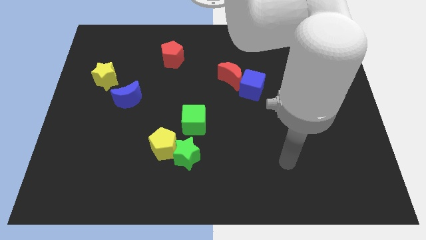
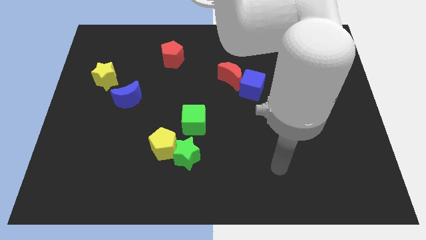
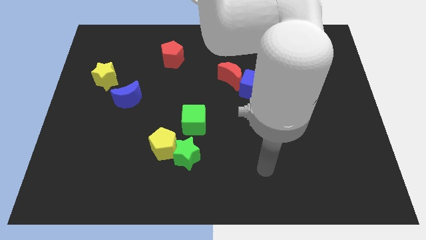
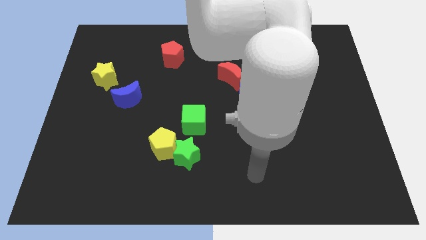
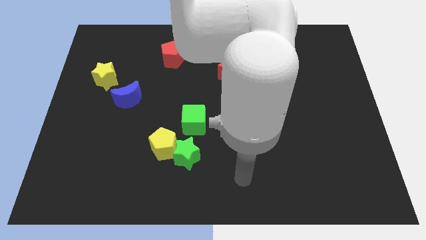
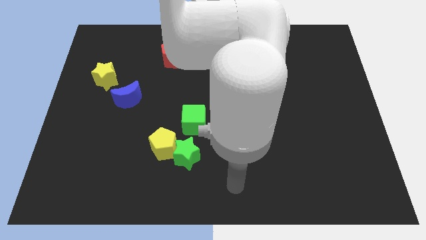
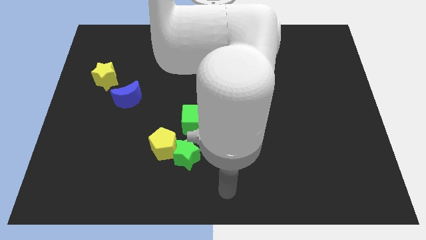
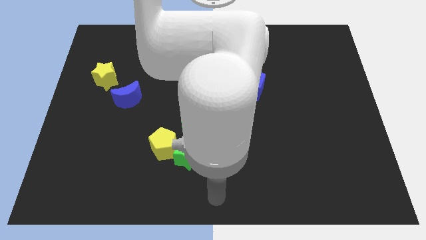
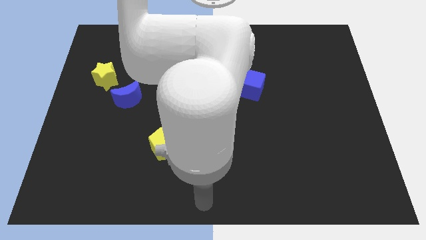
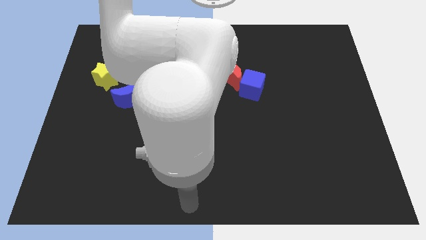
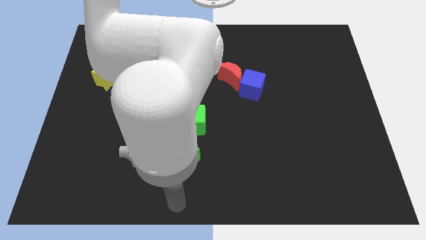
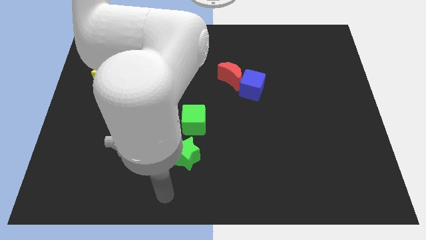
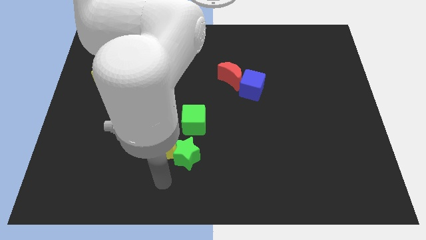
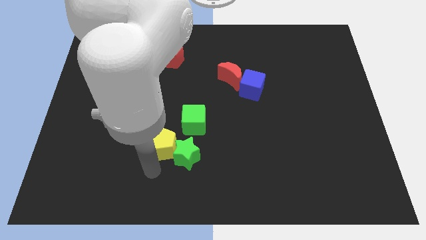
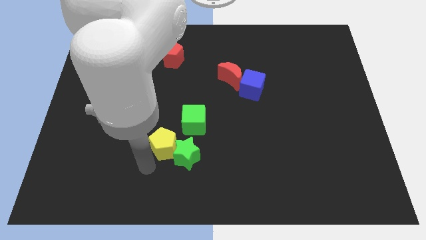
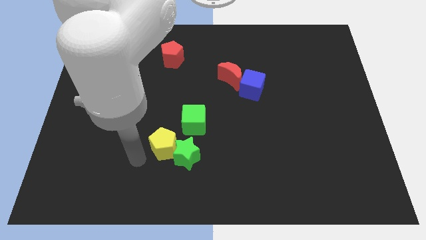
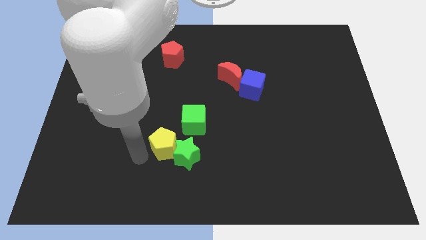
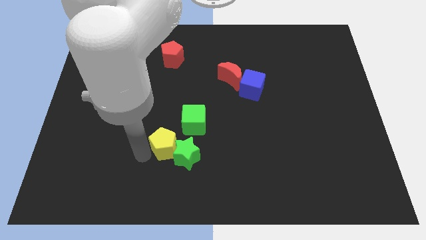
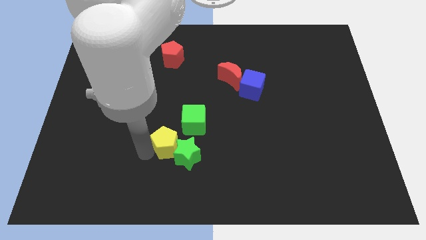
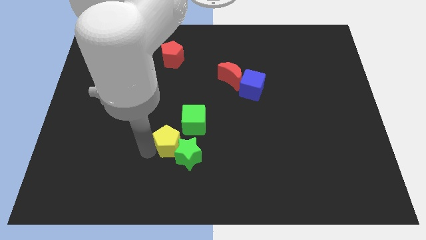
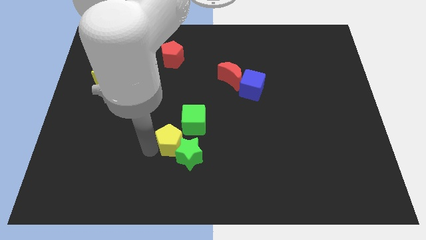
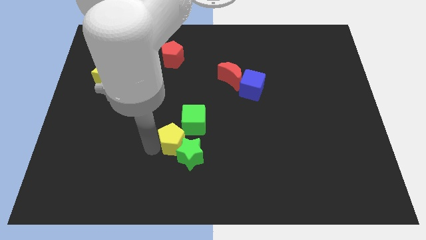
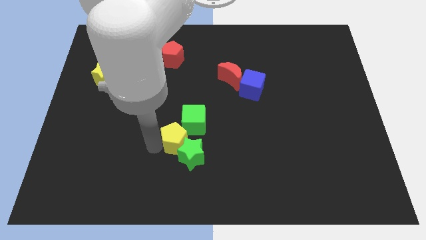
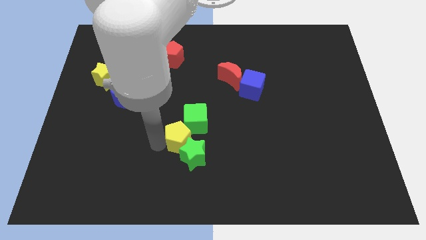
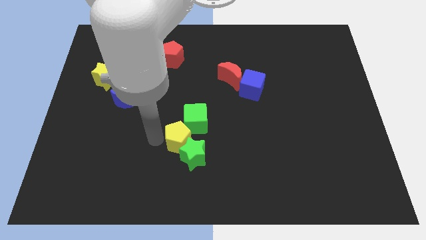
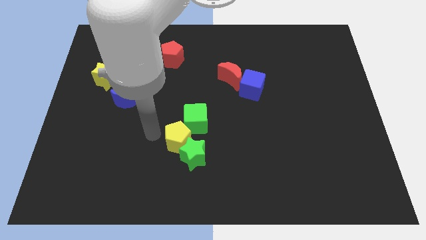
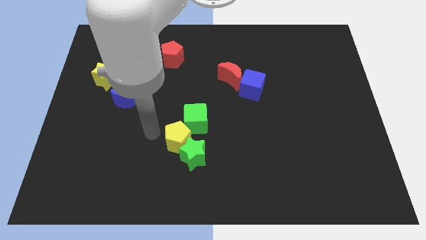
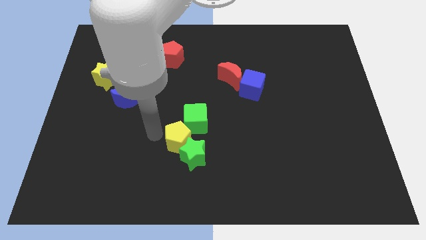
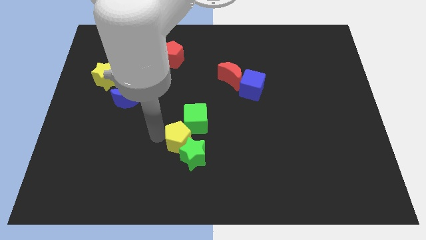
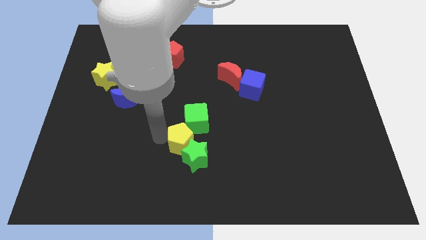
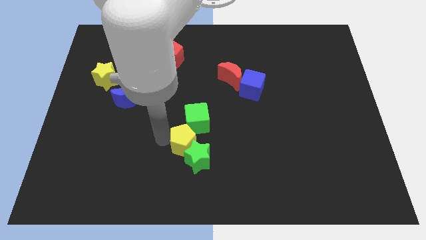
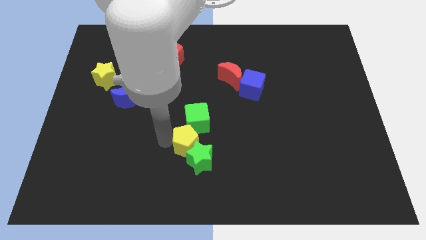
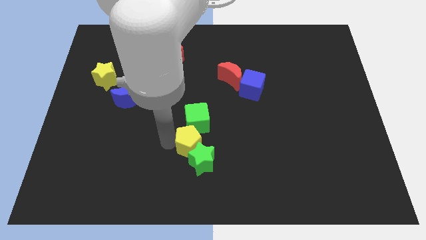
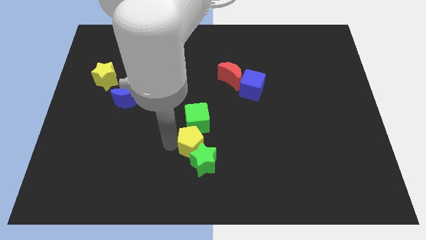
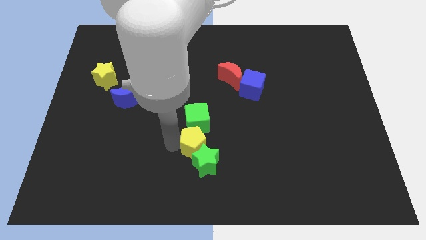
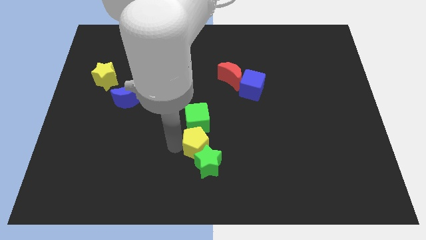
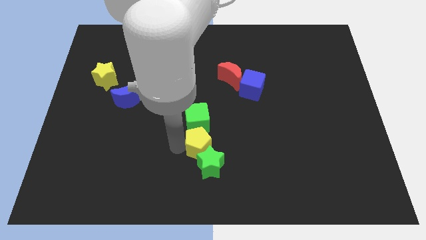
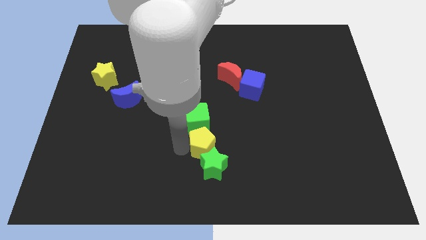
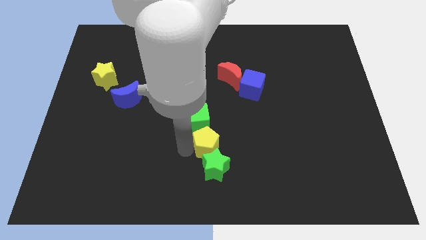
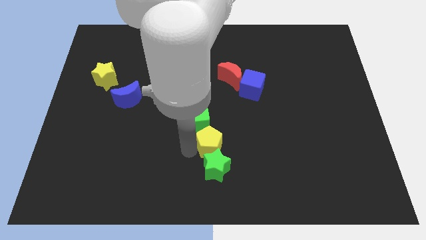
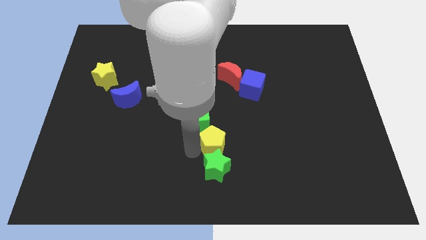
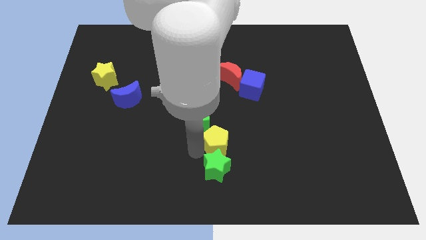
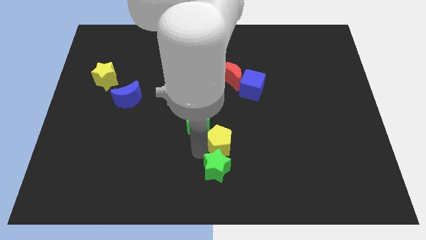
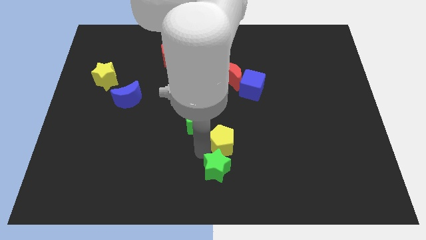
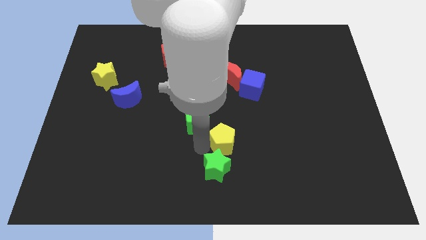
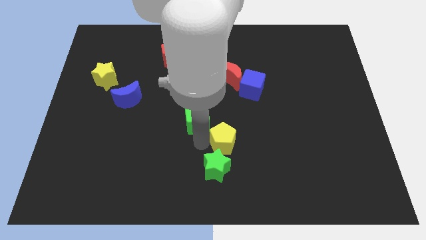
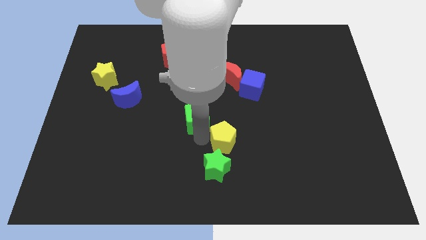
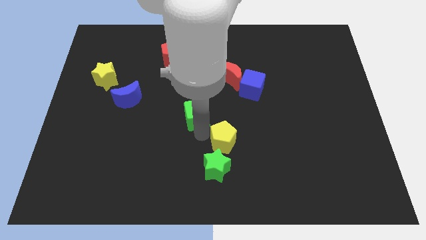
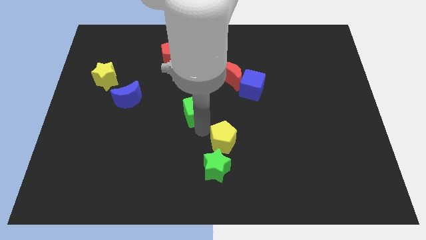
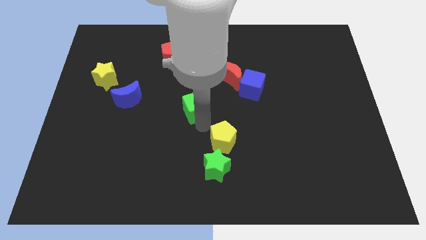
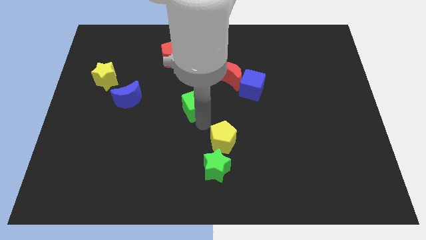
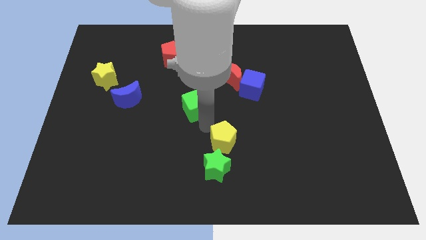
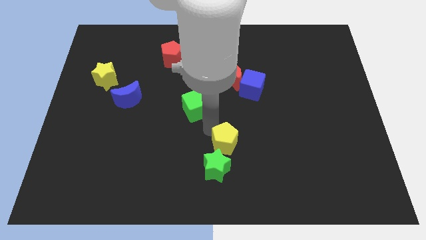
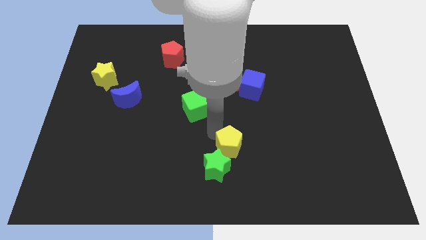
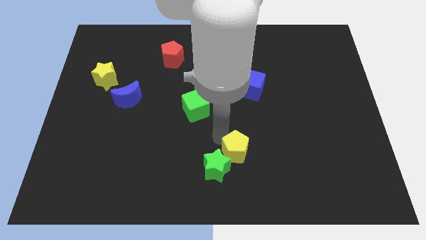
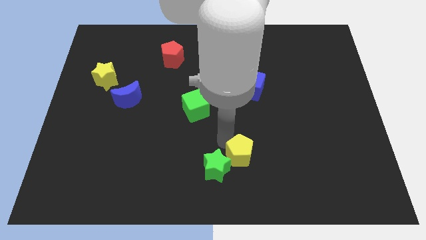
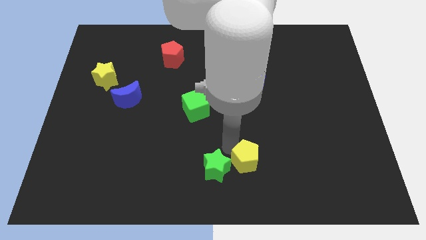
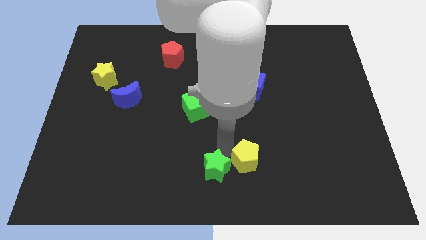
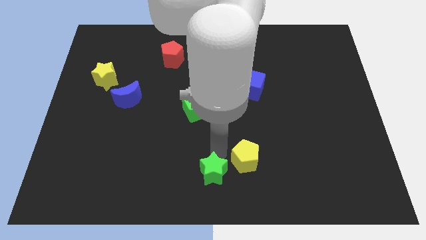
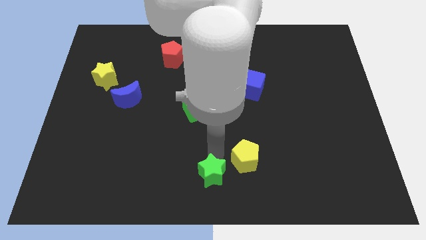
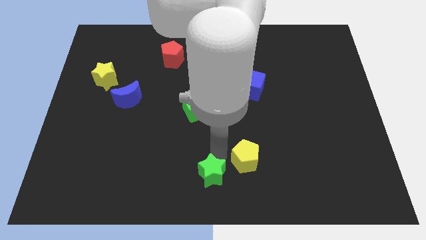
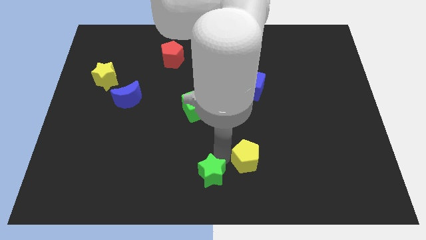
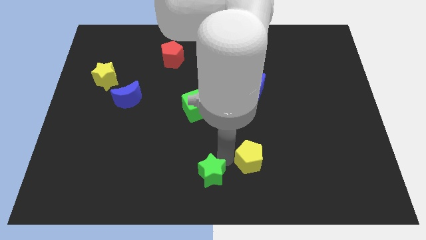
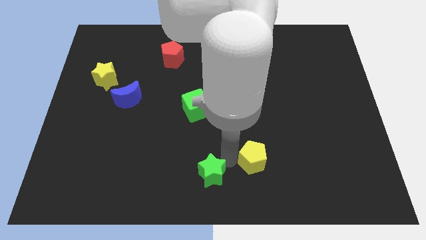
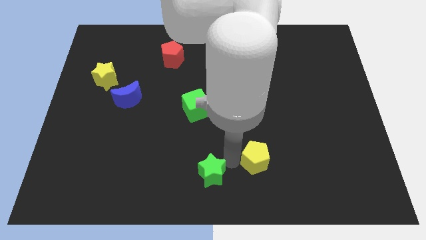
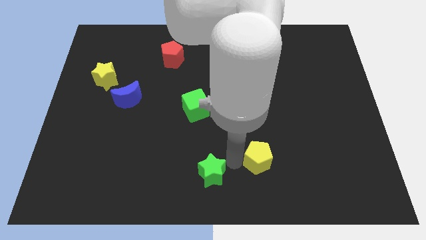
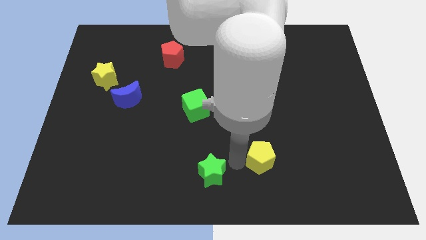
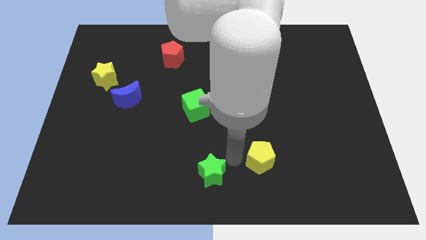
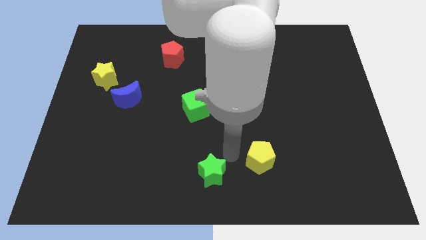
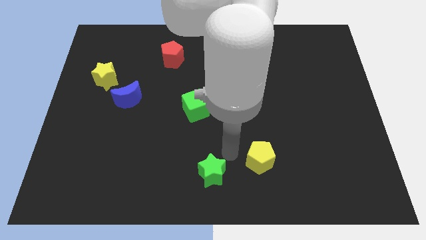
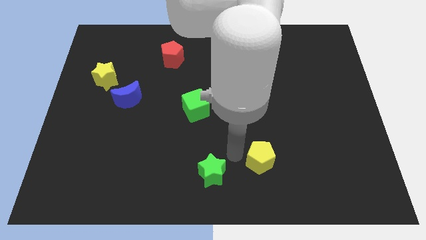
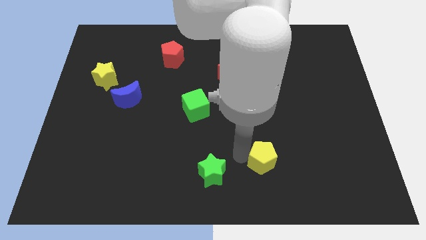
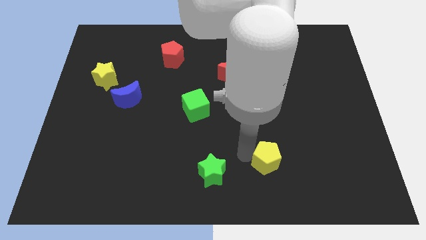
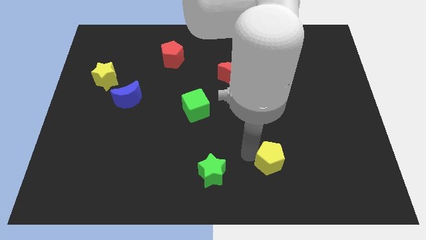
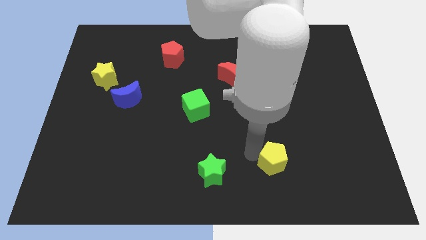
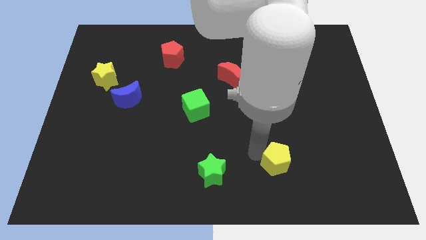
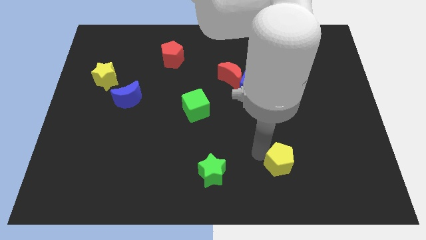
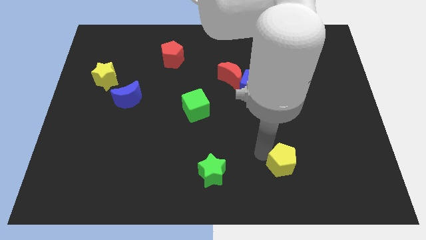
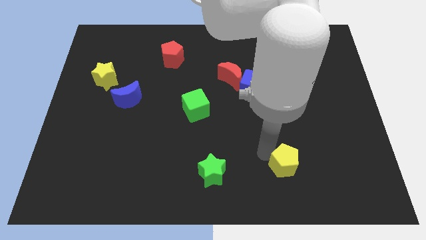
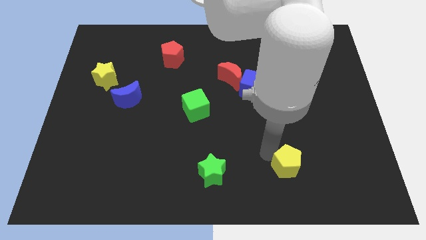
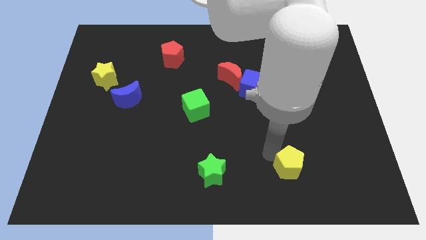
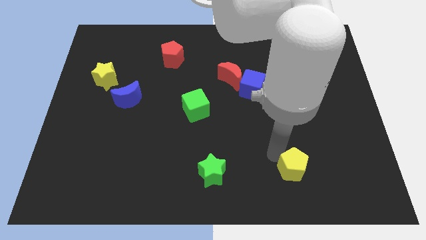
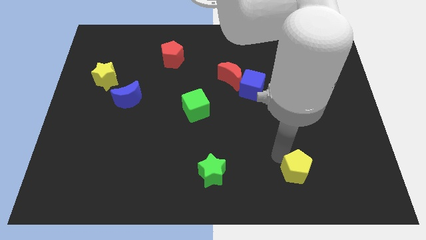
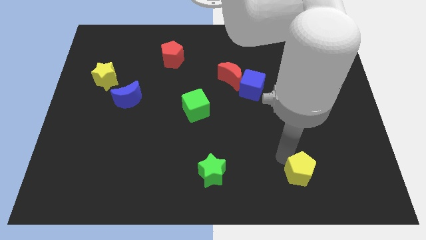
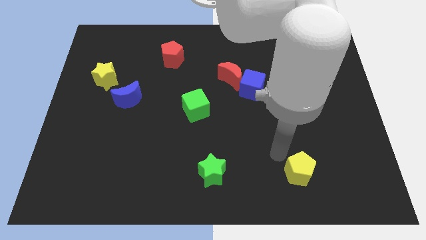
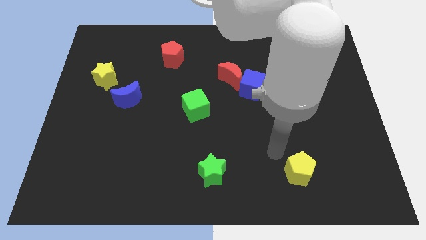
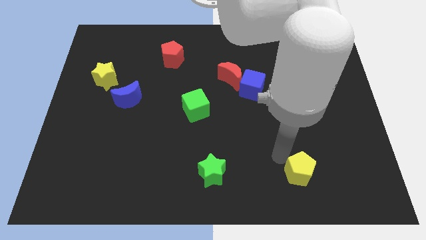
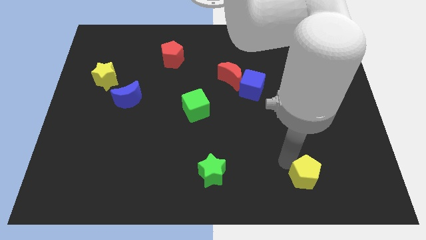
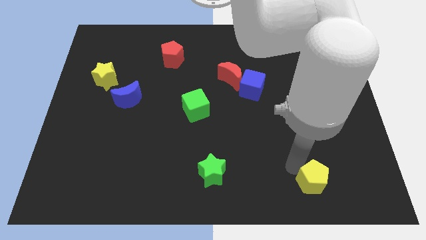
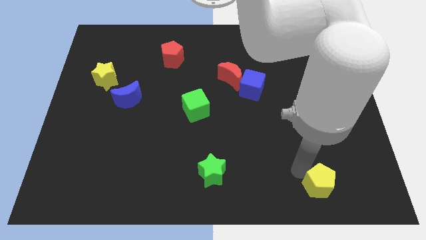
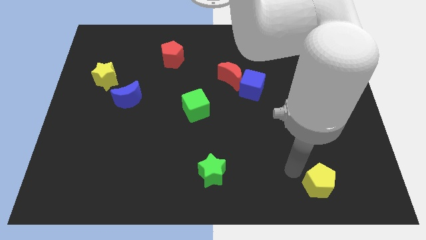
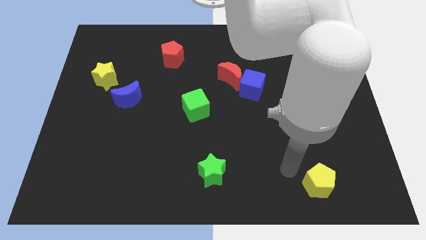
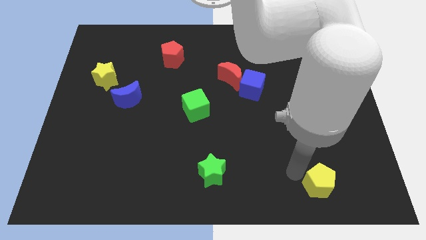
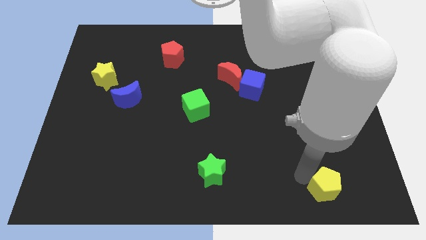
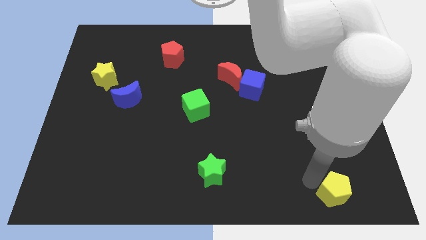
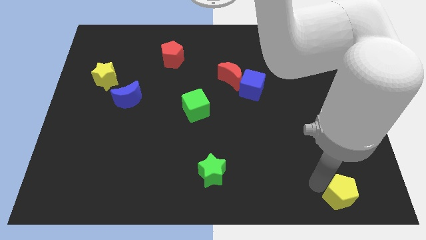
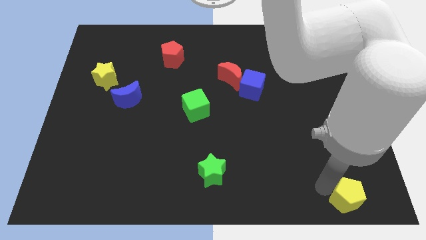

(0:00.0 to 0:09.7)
push the yellow pentagon to the lower right corner
